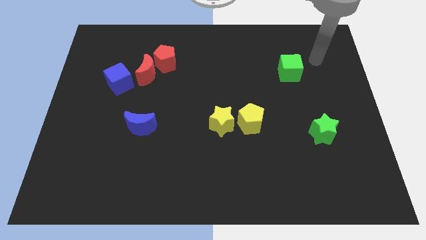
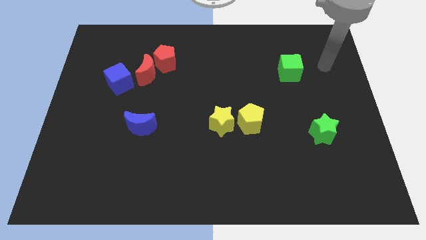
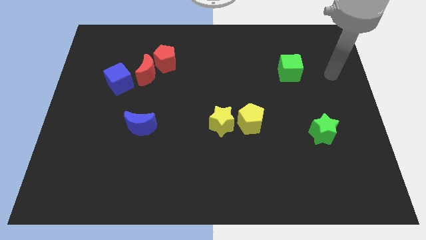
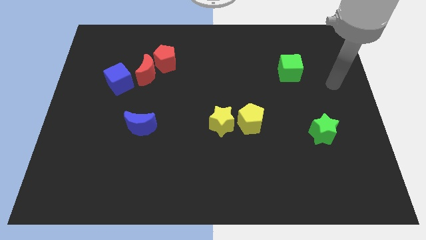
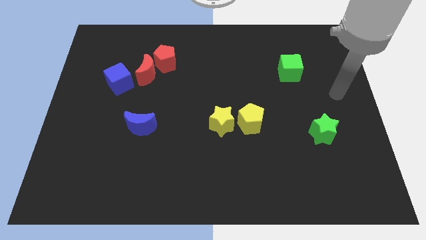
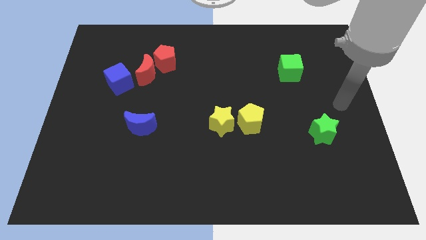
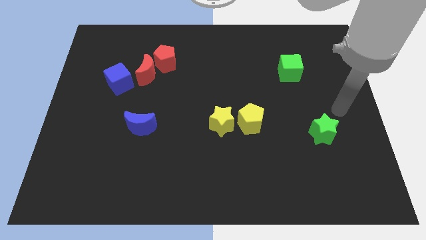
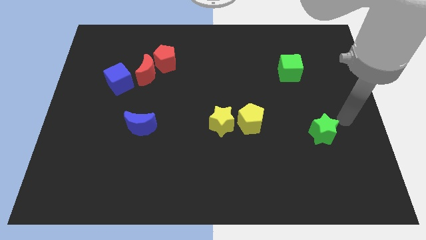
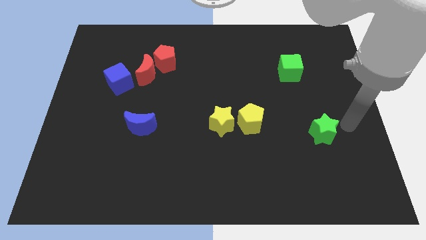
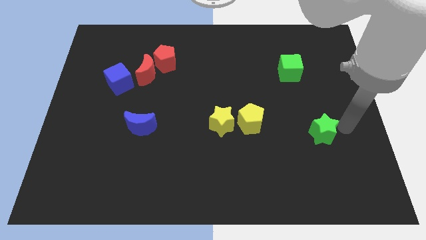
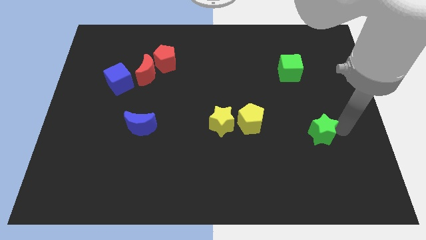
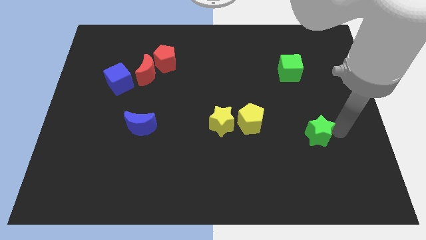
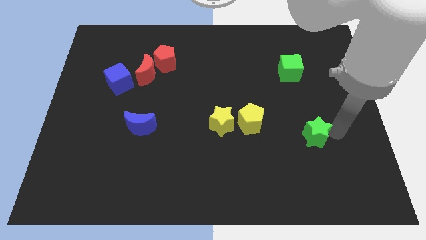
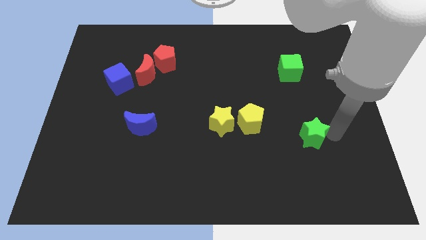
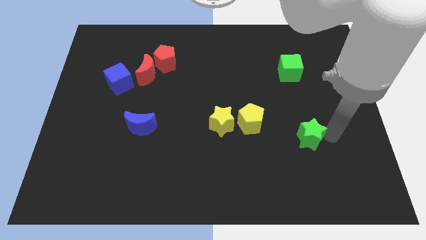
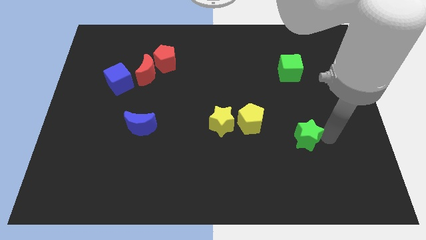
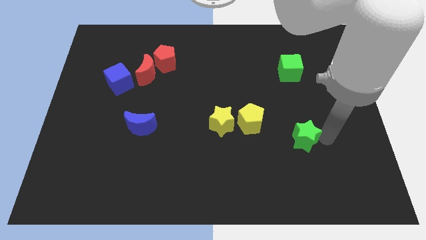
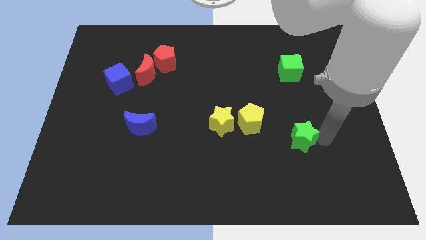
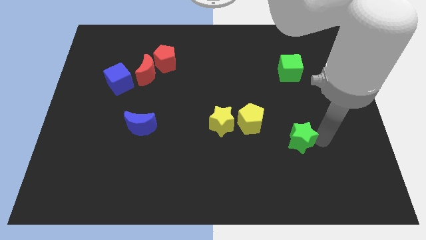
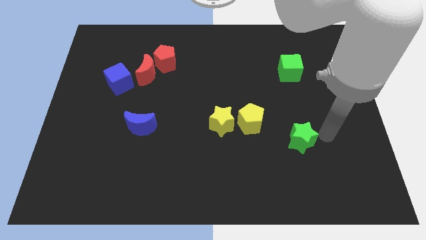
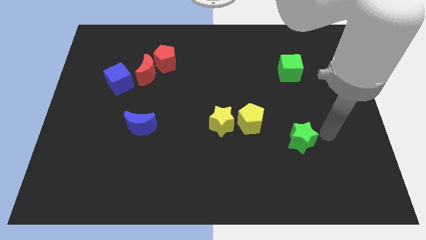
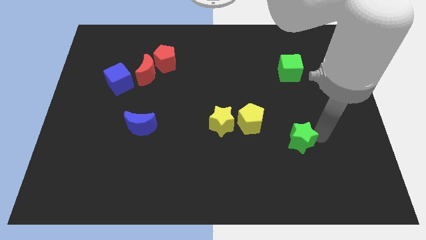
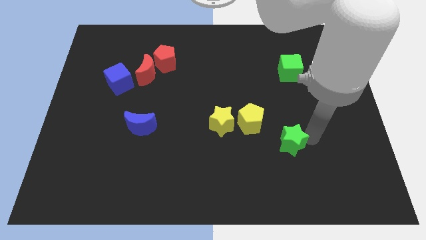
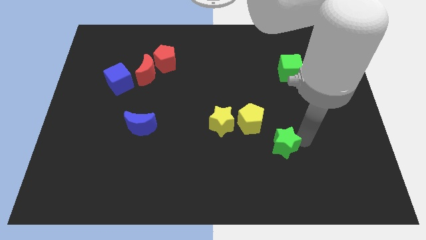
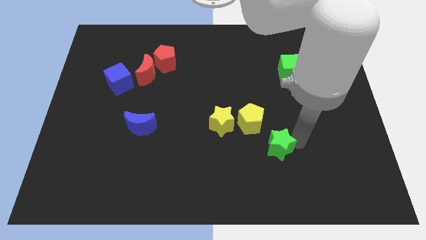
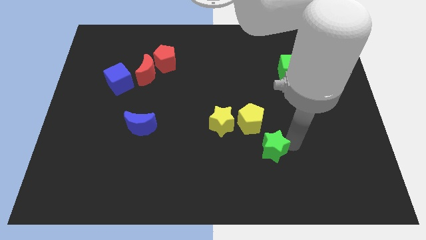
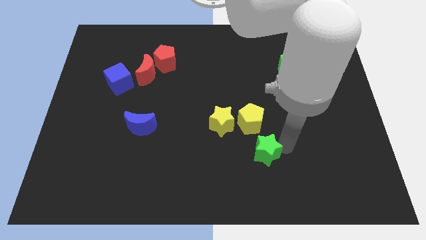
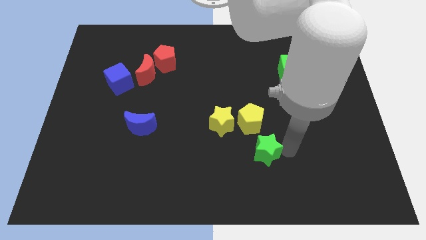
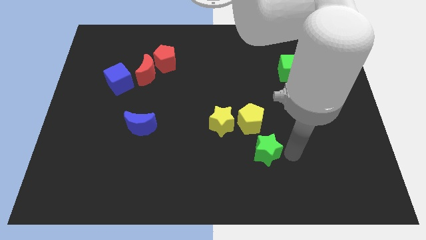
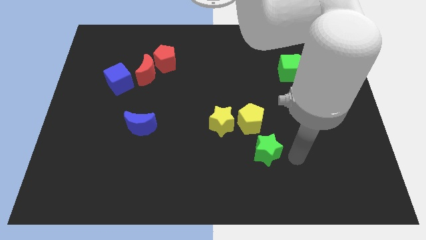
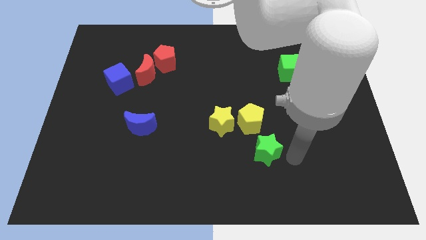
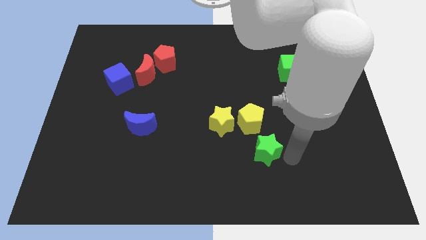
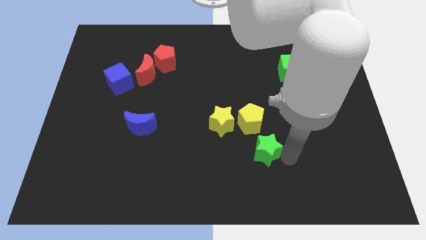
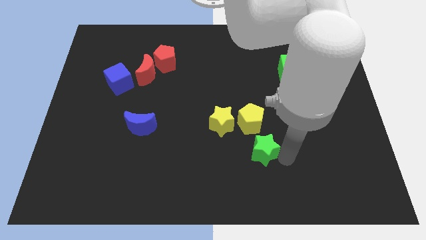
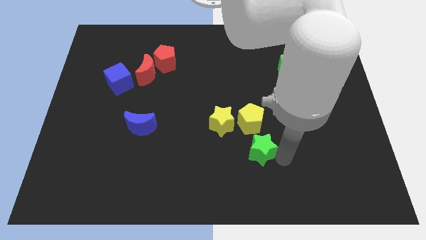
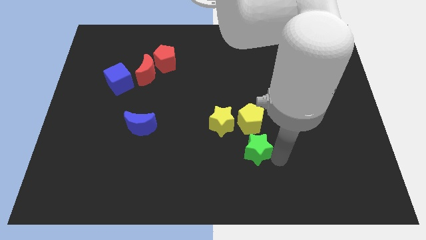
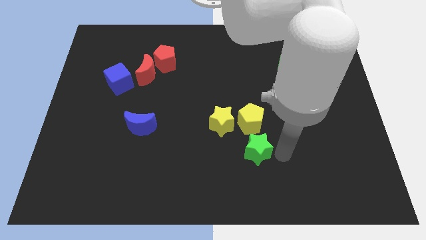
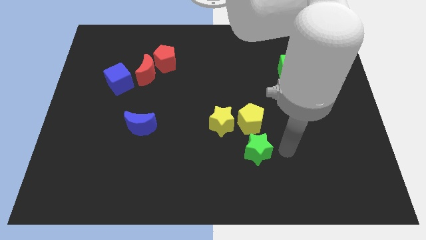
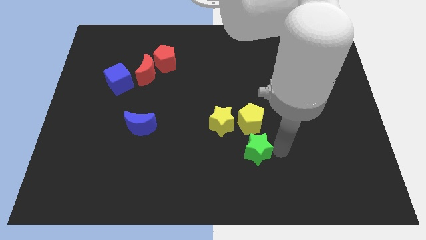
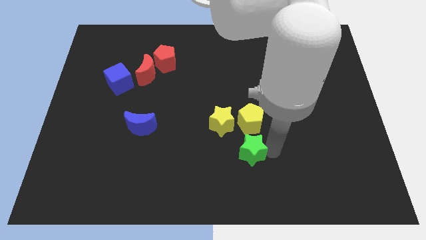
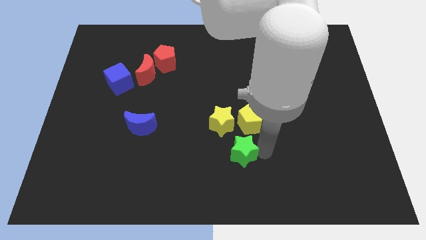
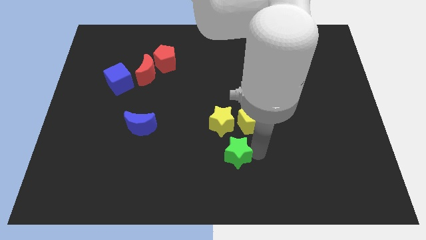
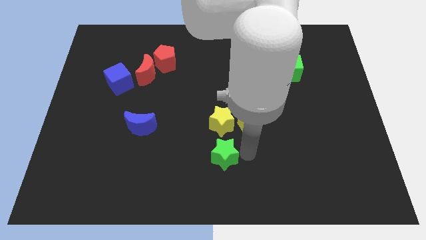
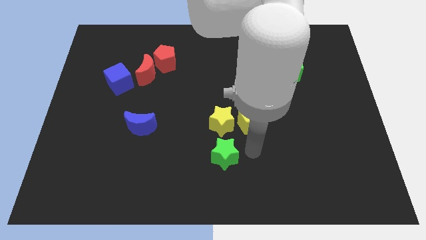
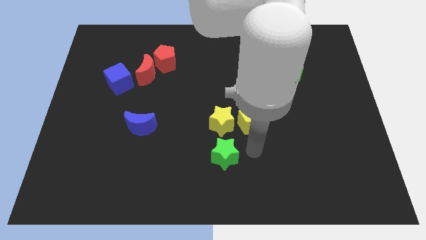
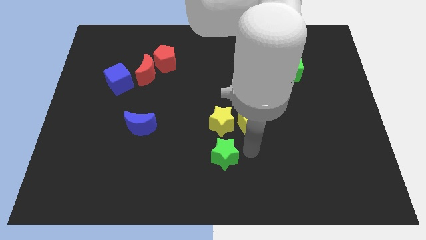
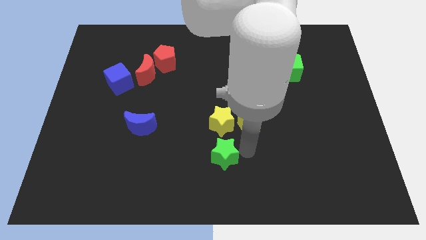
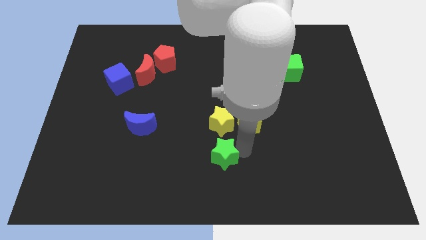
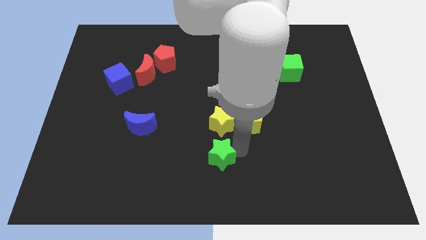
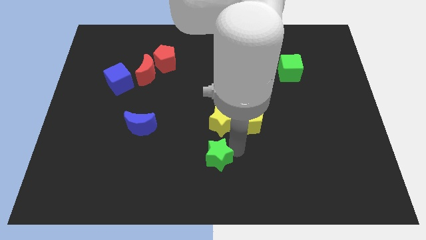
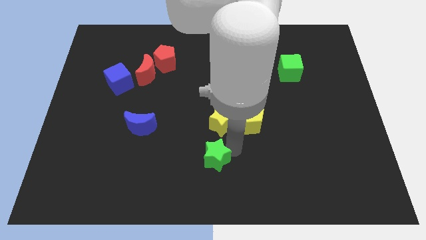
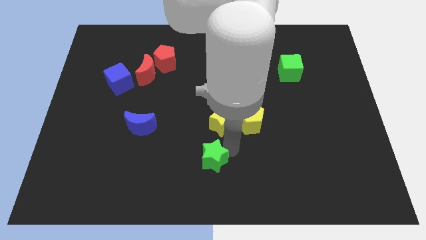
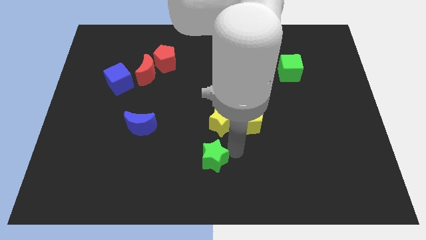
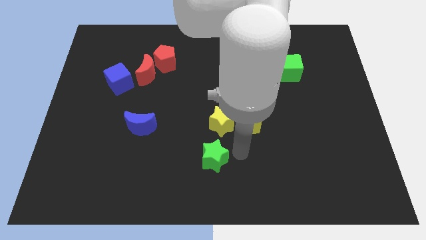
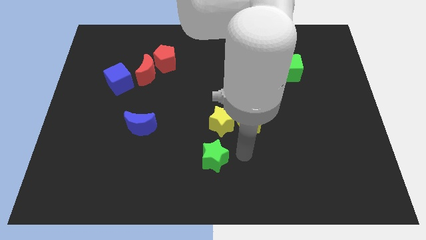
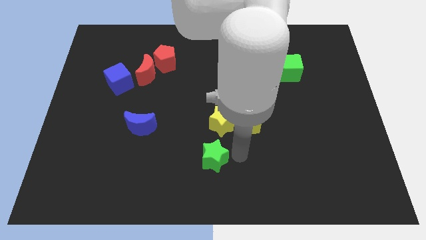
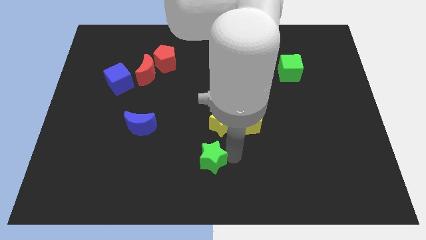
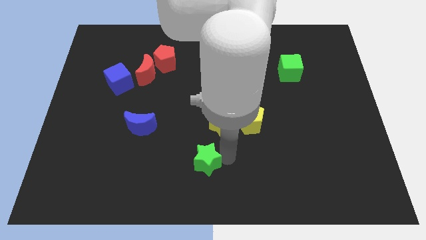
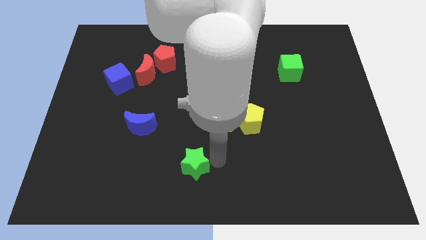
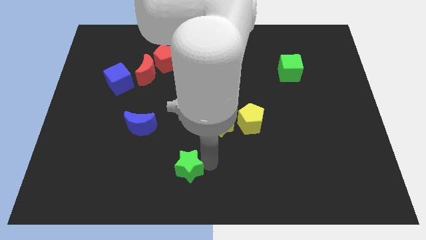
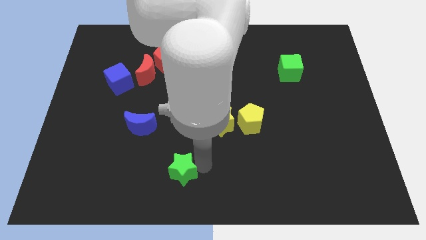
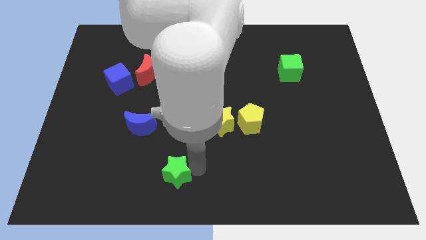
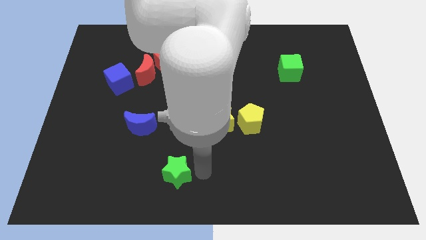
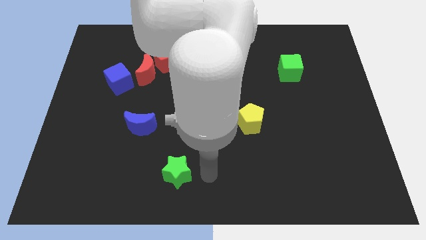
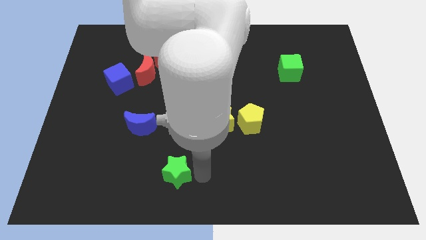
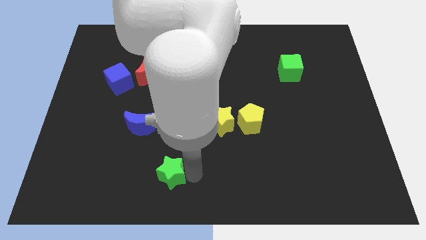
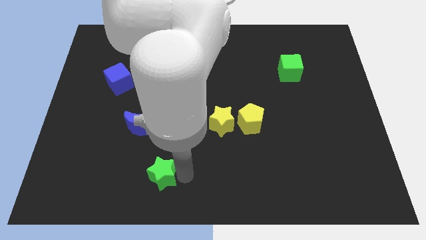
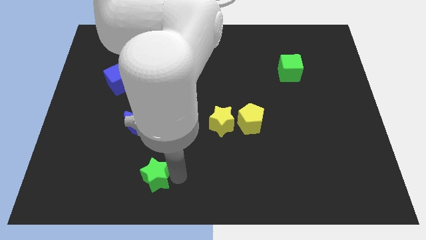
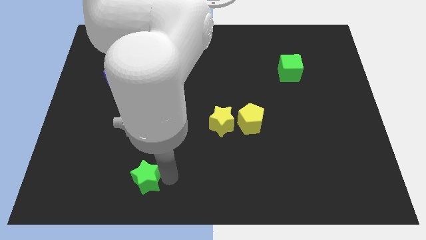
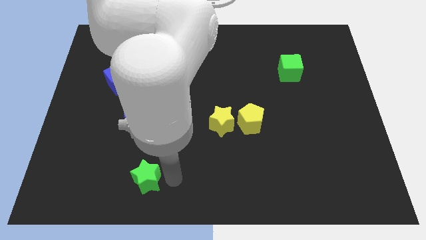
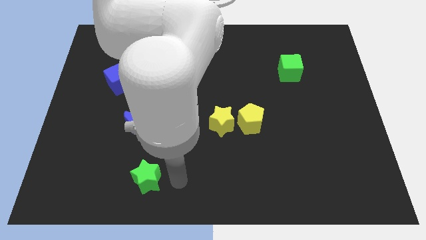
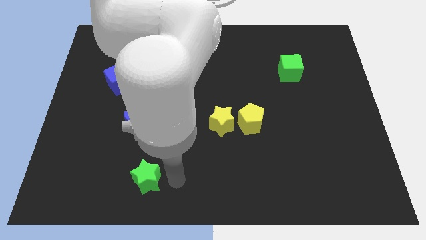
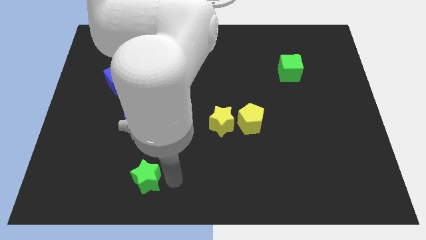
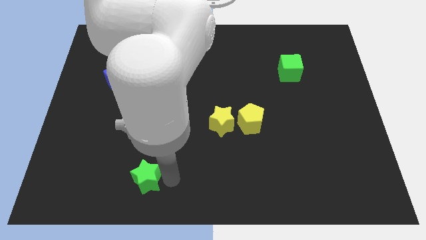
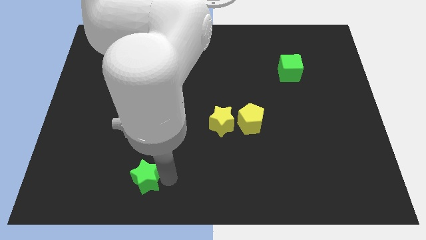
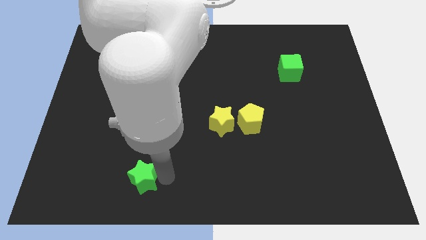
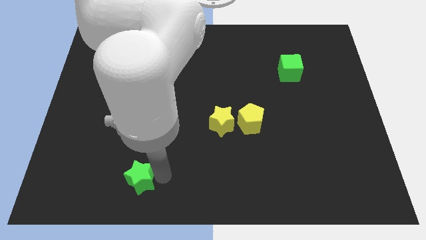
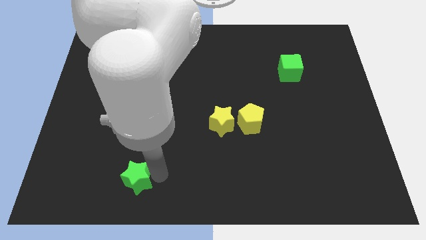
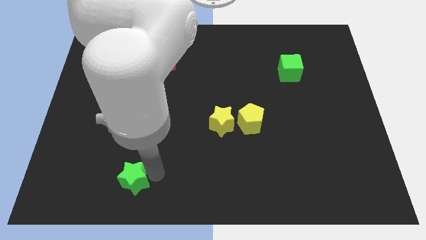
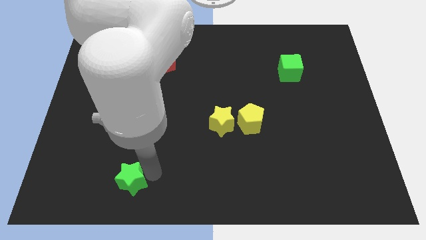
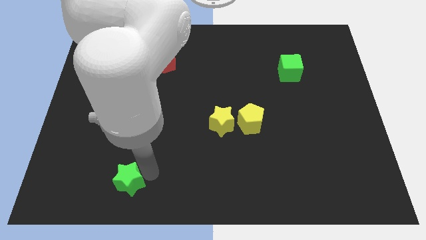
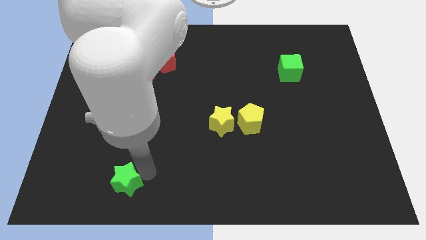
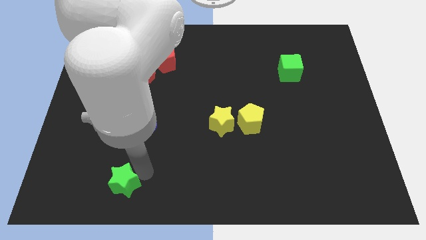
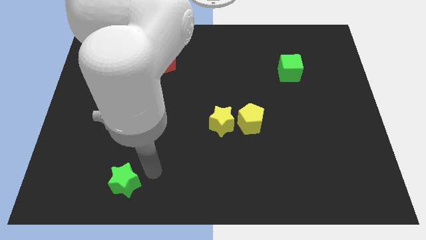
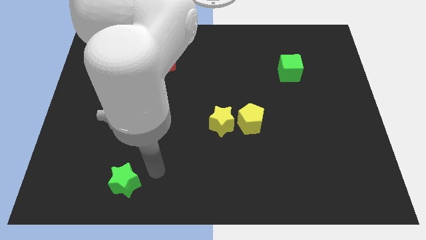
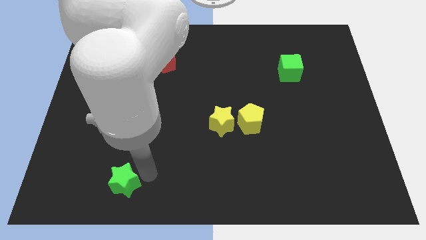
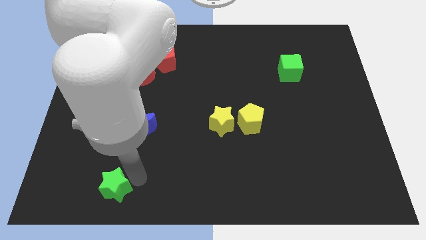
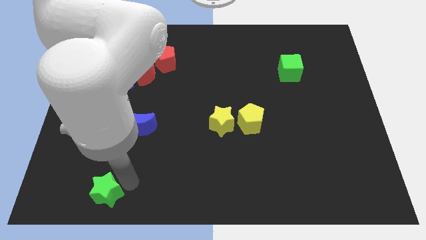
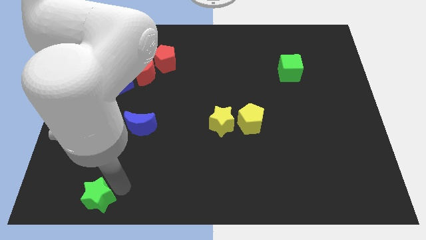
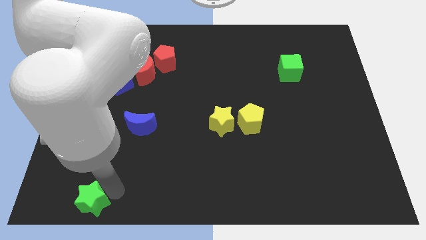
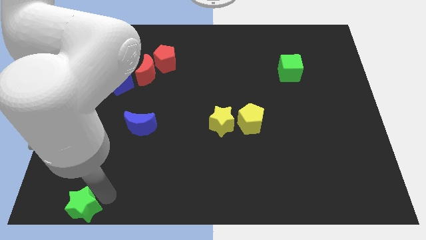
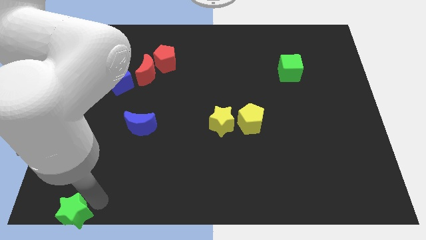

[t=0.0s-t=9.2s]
move the green star to the lower left corner
